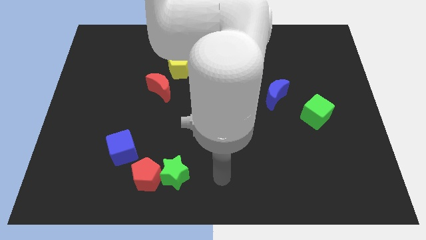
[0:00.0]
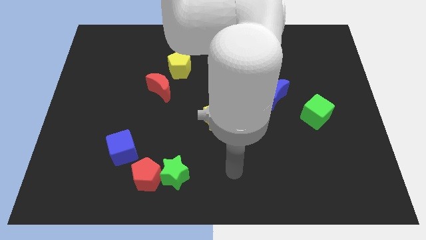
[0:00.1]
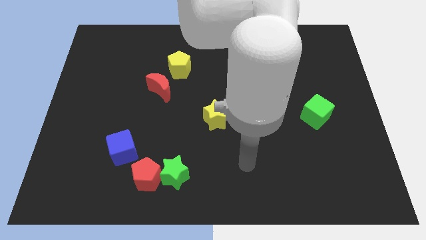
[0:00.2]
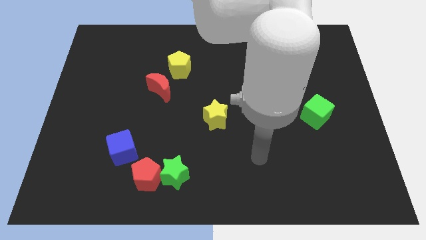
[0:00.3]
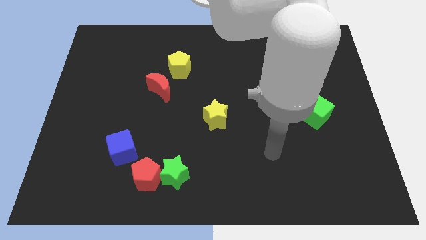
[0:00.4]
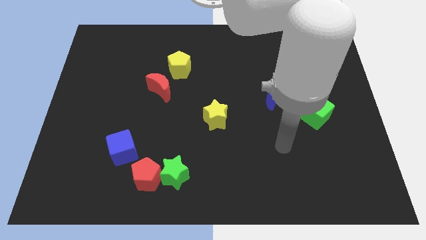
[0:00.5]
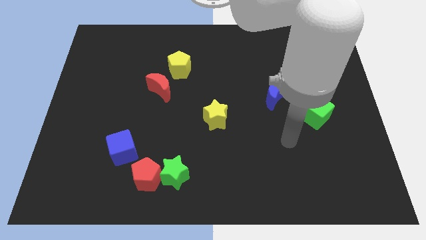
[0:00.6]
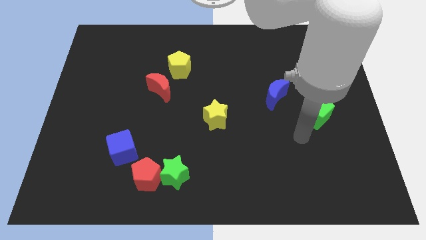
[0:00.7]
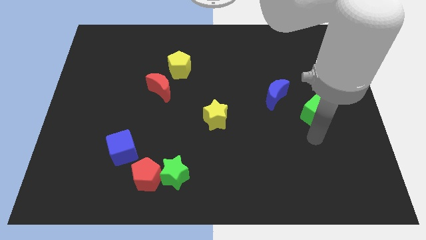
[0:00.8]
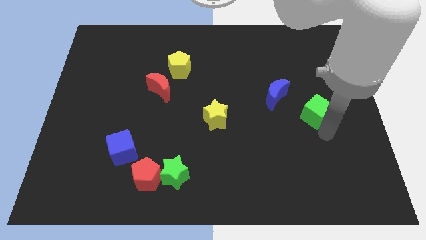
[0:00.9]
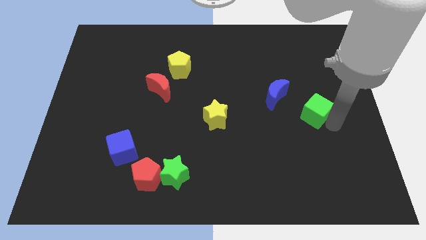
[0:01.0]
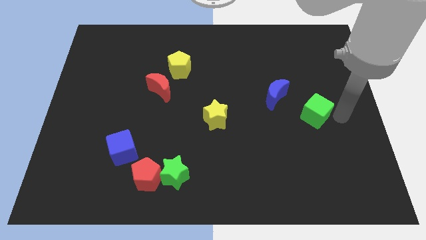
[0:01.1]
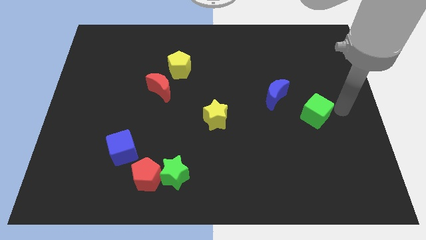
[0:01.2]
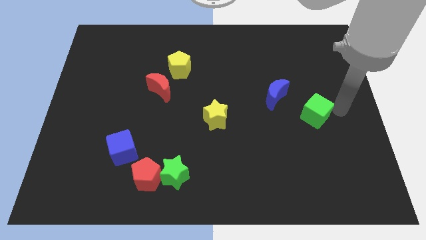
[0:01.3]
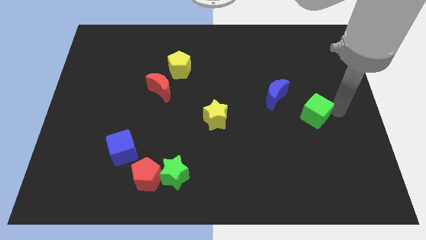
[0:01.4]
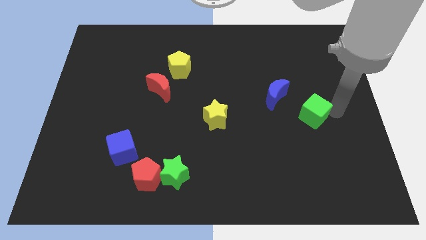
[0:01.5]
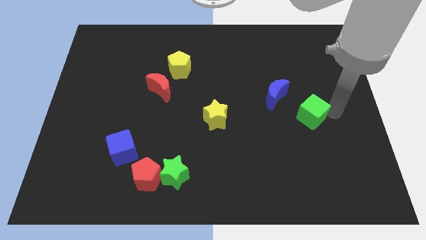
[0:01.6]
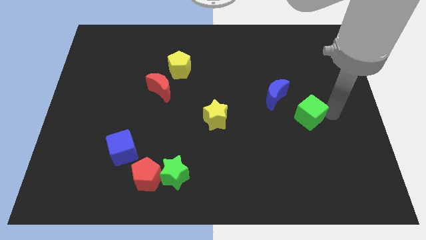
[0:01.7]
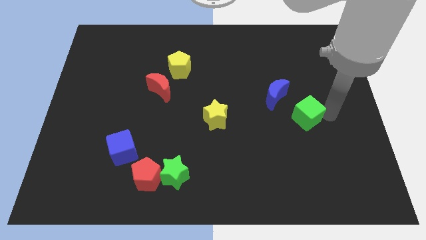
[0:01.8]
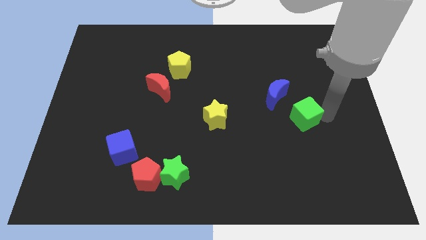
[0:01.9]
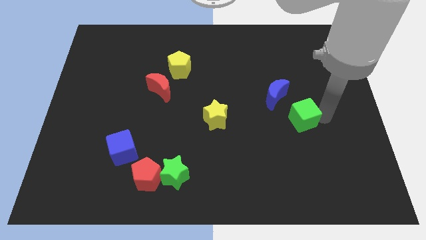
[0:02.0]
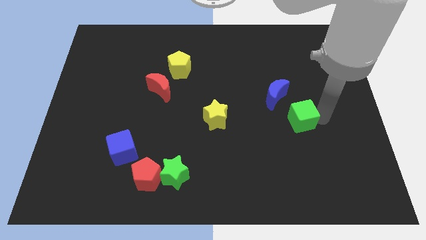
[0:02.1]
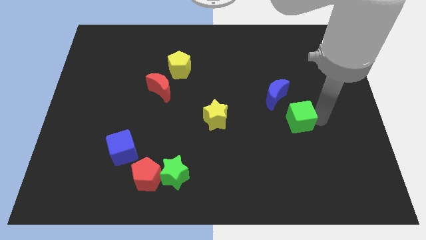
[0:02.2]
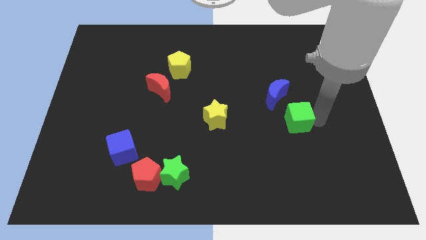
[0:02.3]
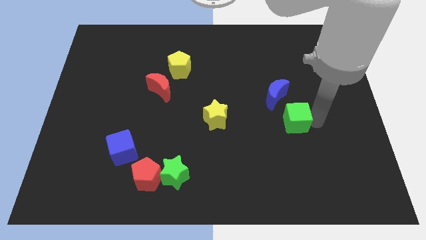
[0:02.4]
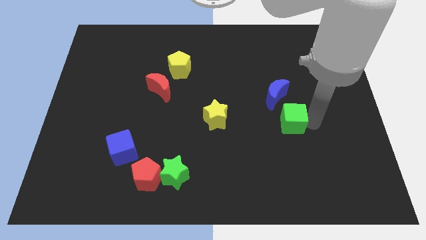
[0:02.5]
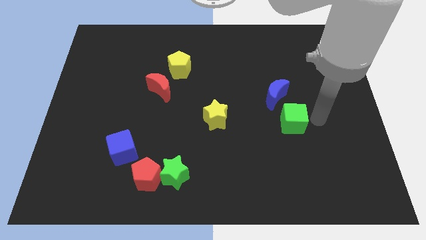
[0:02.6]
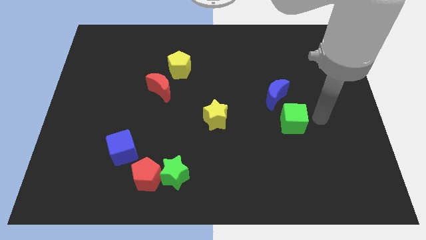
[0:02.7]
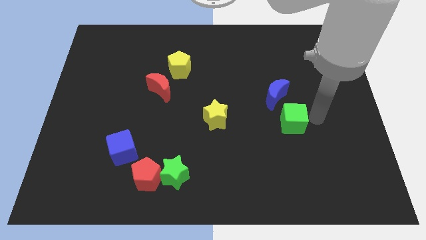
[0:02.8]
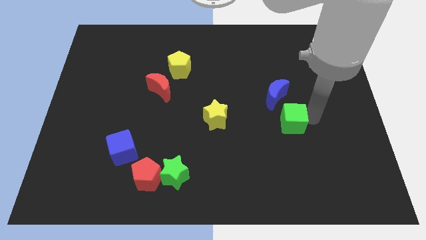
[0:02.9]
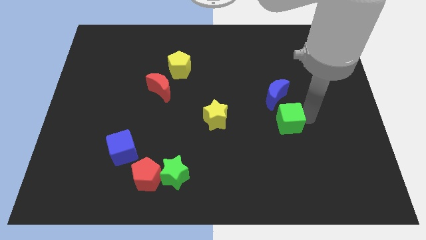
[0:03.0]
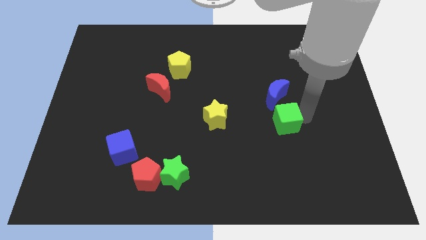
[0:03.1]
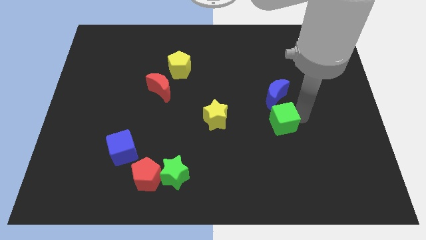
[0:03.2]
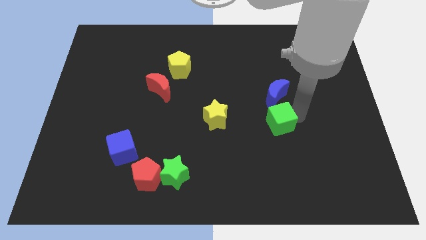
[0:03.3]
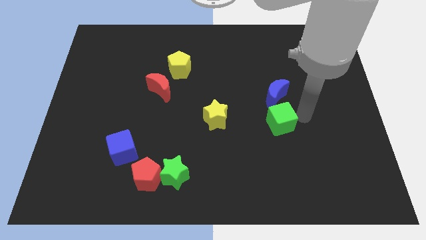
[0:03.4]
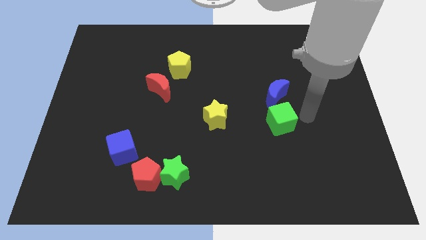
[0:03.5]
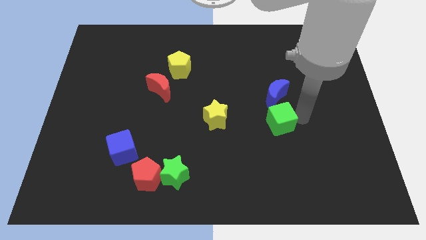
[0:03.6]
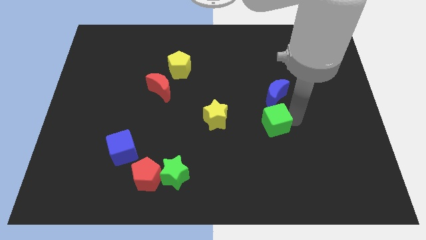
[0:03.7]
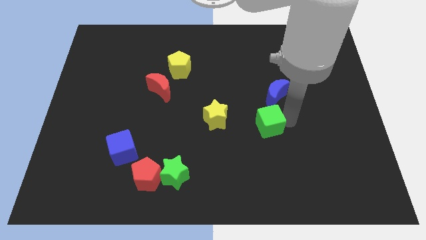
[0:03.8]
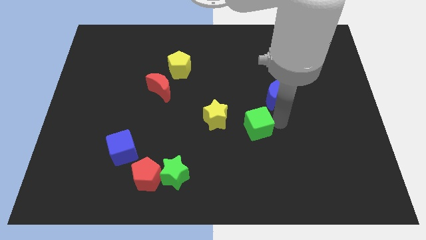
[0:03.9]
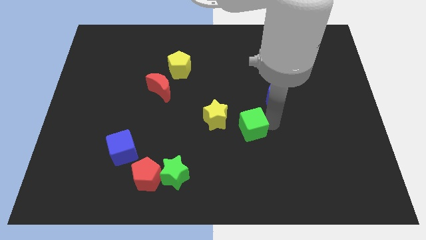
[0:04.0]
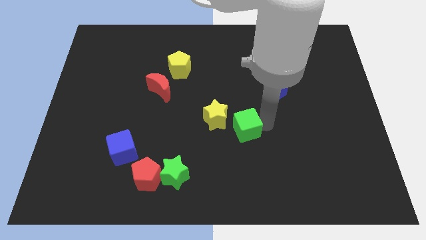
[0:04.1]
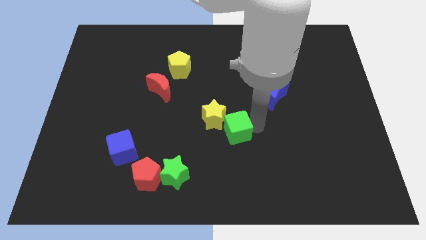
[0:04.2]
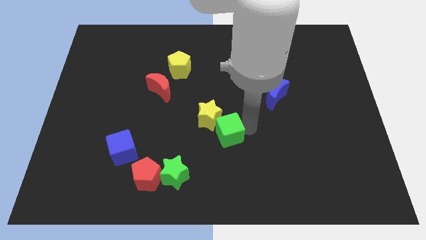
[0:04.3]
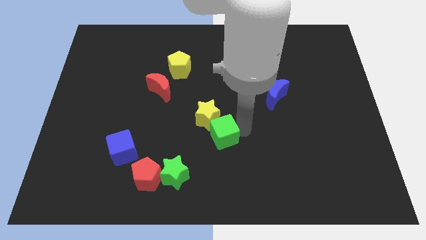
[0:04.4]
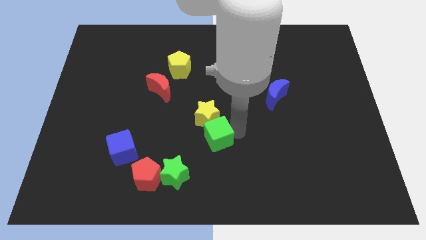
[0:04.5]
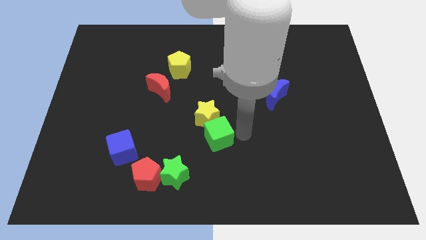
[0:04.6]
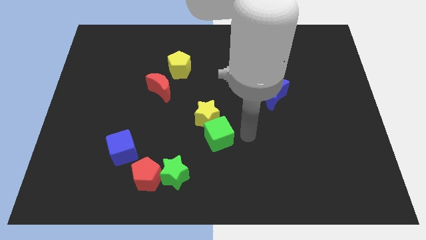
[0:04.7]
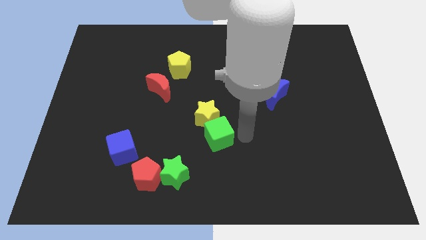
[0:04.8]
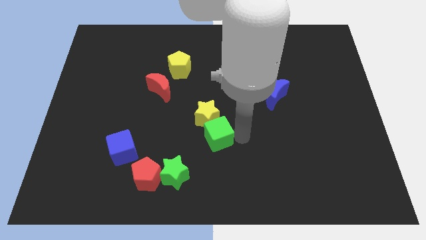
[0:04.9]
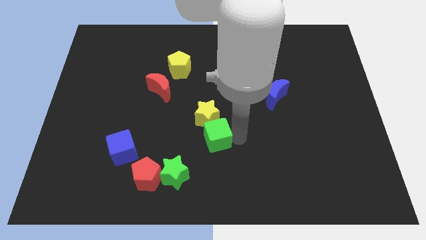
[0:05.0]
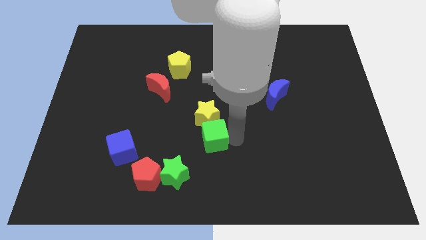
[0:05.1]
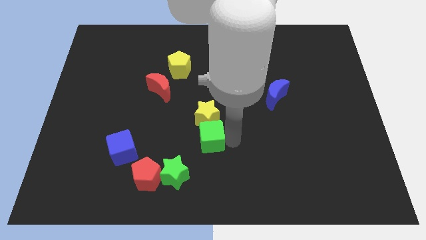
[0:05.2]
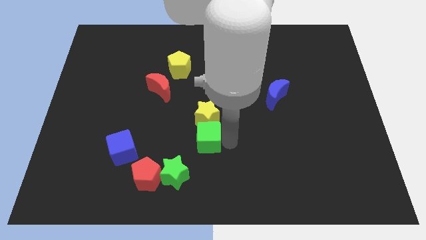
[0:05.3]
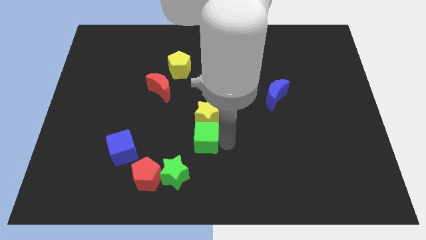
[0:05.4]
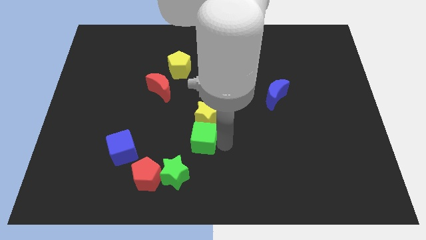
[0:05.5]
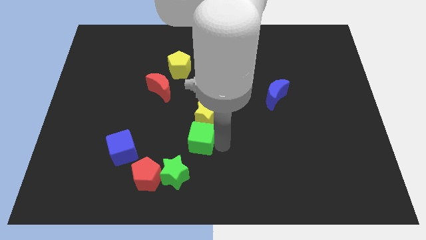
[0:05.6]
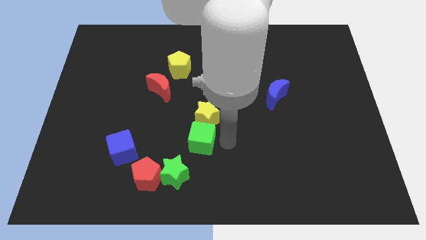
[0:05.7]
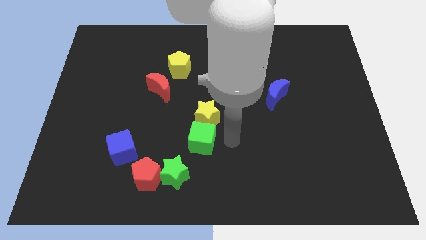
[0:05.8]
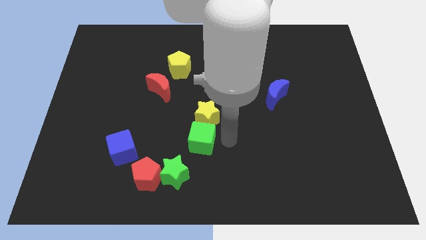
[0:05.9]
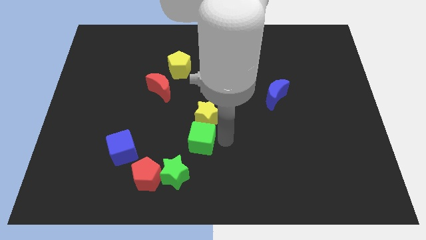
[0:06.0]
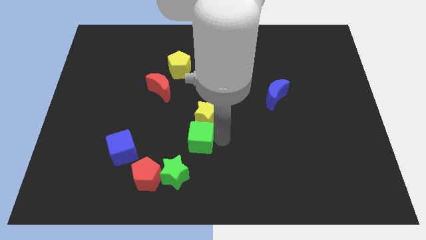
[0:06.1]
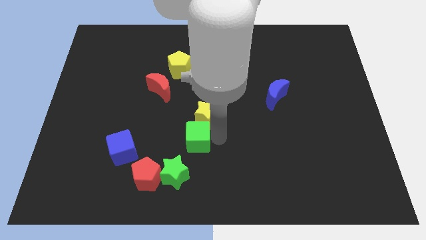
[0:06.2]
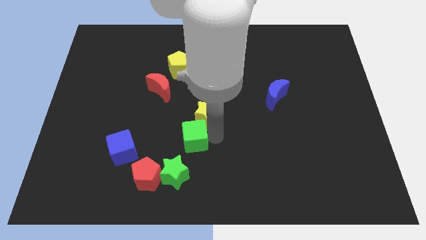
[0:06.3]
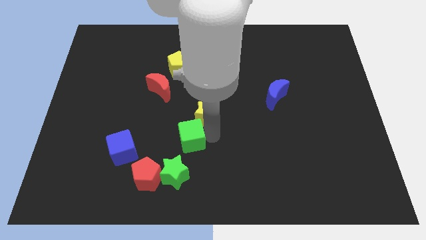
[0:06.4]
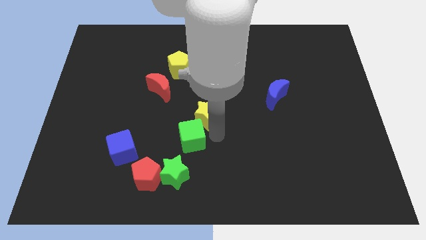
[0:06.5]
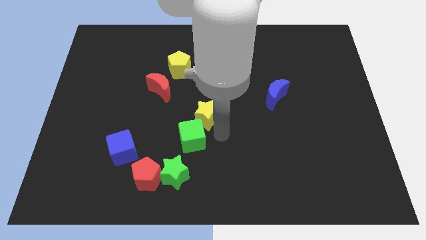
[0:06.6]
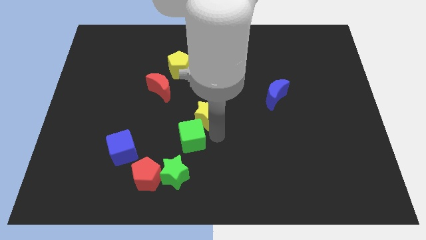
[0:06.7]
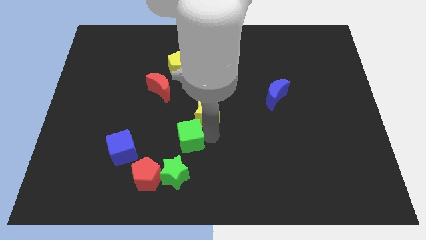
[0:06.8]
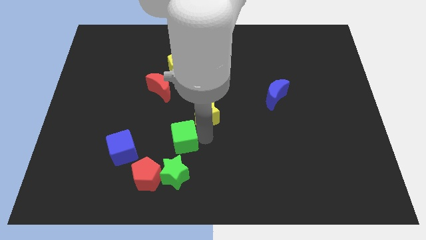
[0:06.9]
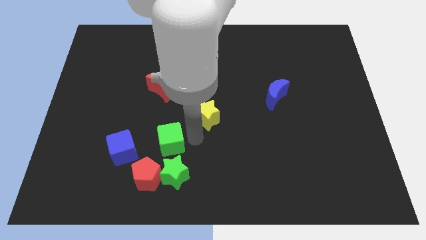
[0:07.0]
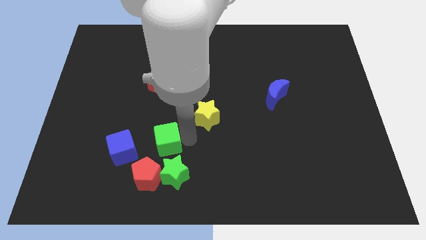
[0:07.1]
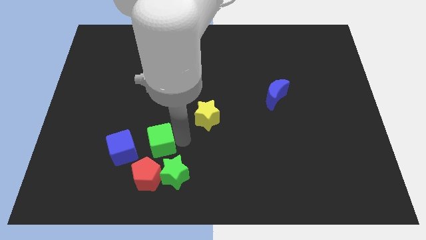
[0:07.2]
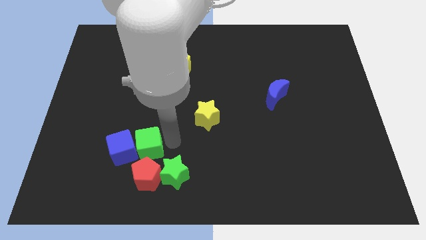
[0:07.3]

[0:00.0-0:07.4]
move the green cube next to the blue cube

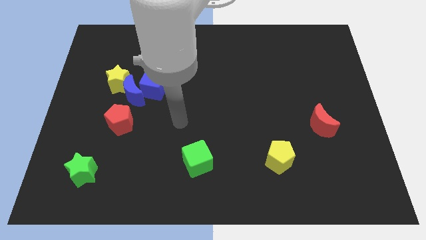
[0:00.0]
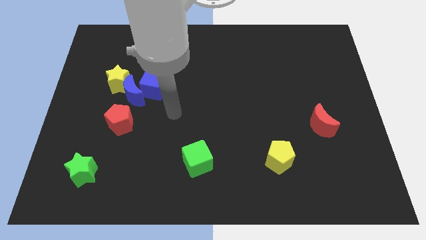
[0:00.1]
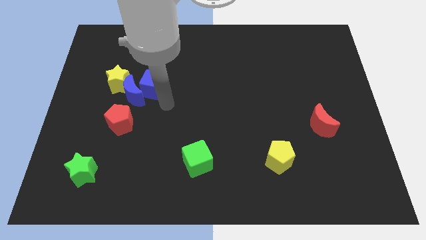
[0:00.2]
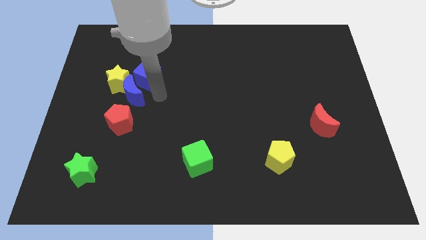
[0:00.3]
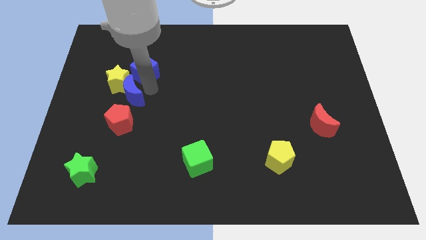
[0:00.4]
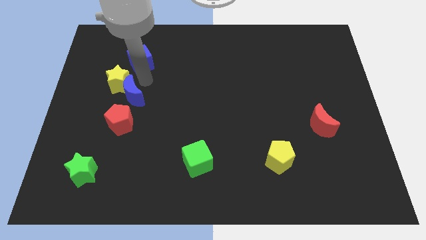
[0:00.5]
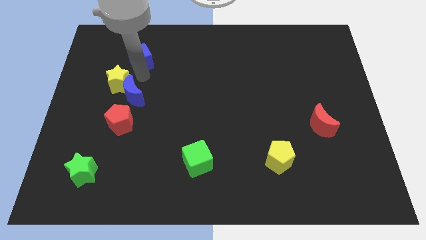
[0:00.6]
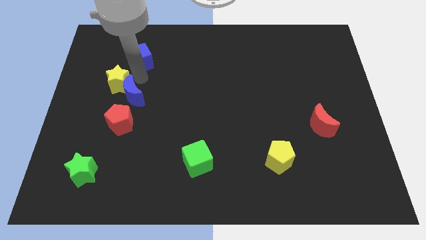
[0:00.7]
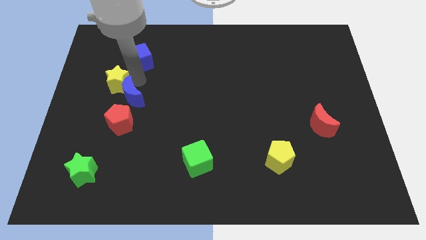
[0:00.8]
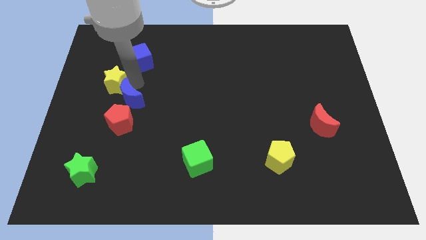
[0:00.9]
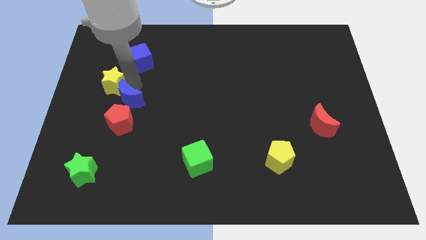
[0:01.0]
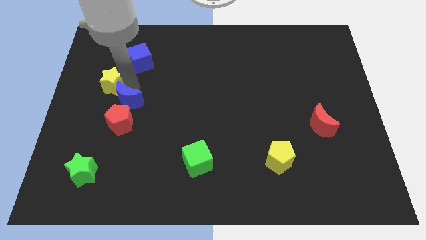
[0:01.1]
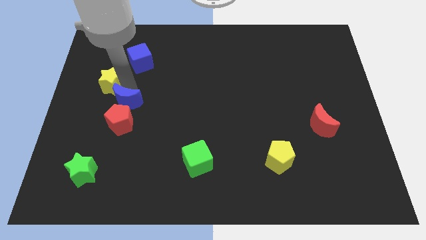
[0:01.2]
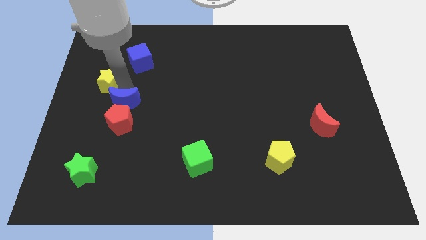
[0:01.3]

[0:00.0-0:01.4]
push the blue moon next to the red pentagon
